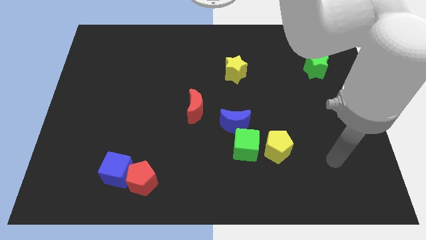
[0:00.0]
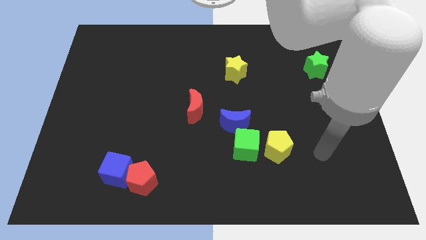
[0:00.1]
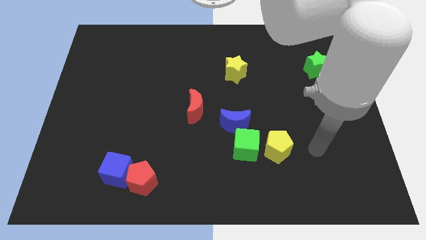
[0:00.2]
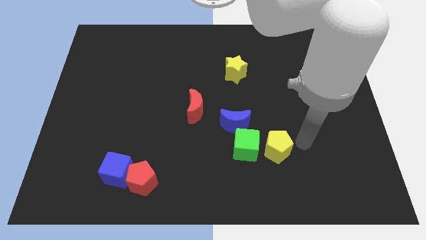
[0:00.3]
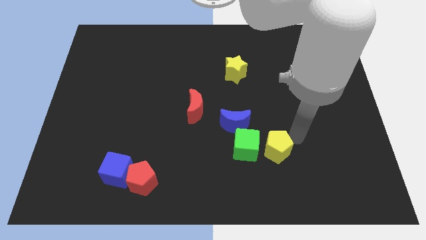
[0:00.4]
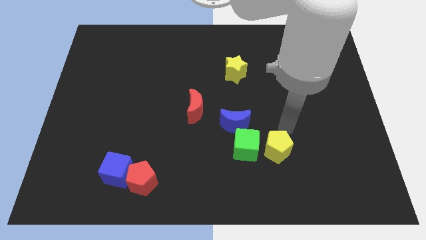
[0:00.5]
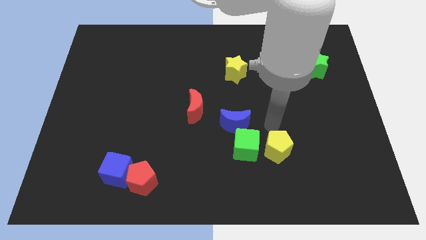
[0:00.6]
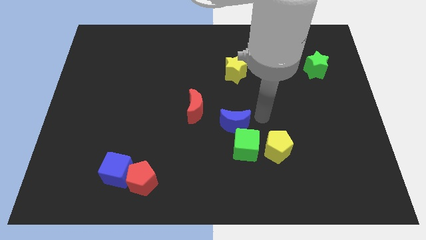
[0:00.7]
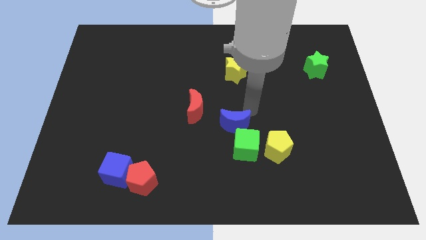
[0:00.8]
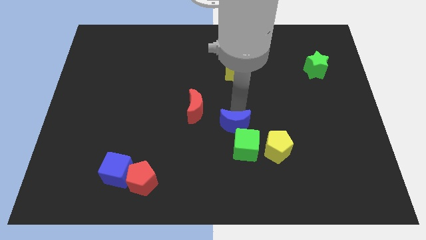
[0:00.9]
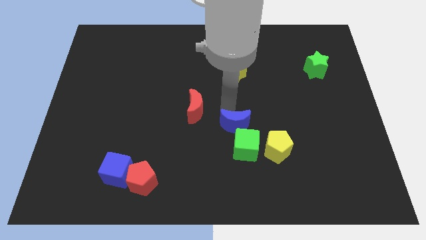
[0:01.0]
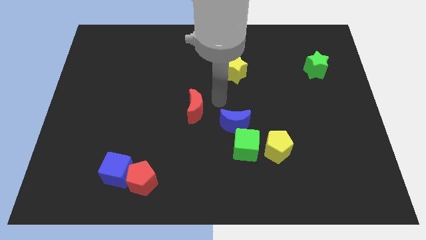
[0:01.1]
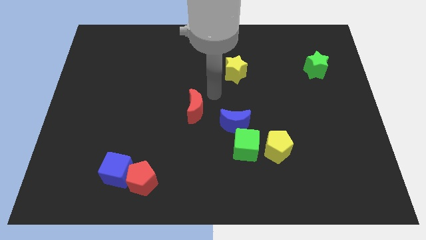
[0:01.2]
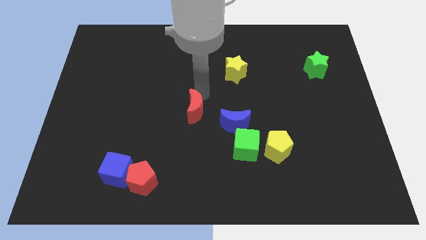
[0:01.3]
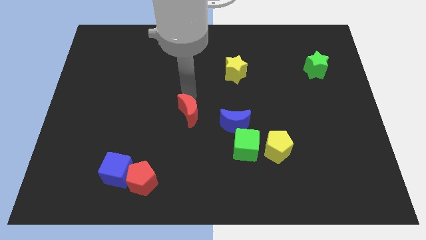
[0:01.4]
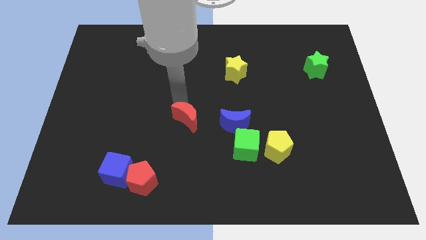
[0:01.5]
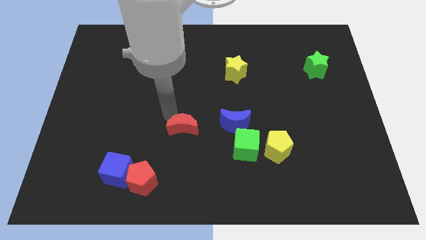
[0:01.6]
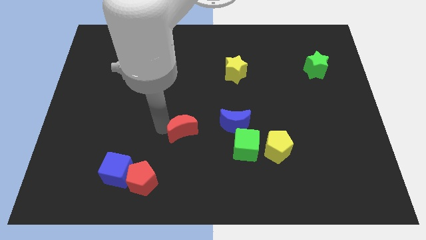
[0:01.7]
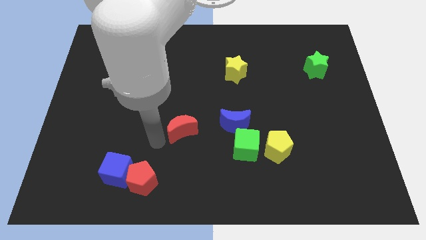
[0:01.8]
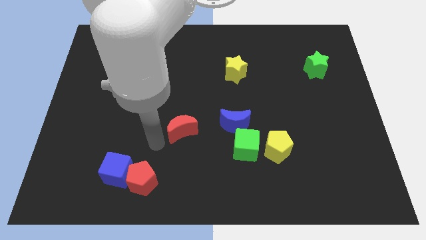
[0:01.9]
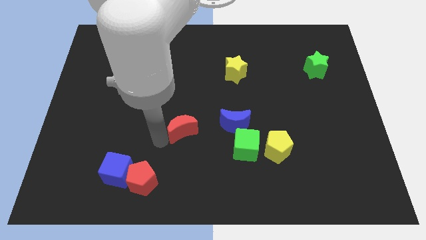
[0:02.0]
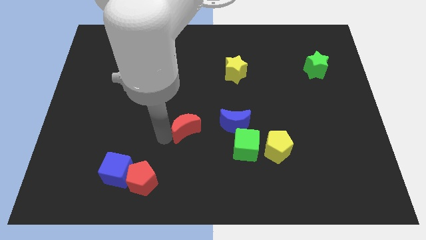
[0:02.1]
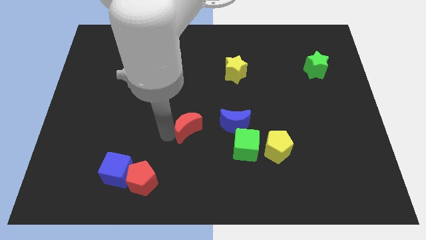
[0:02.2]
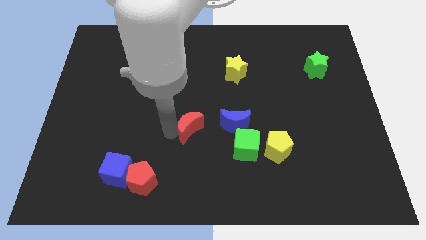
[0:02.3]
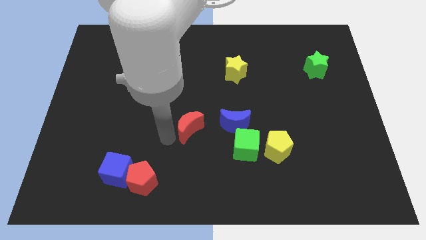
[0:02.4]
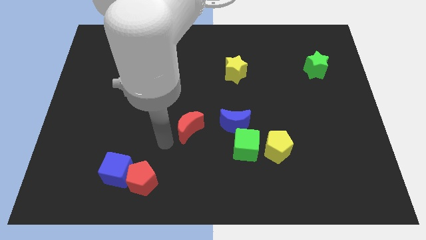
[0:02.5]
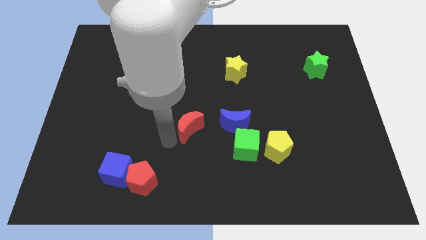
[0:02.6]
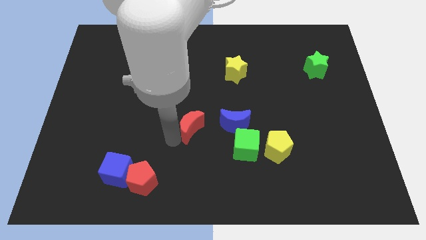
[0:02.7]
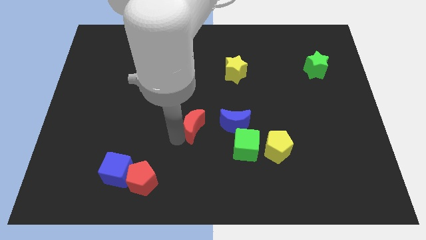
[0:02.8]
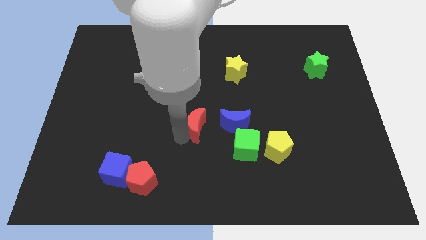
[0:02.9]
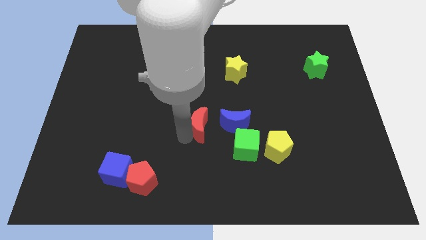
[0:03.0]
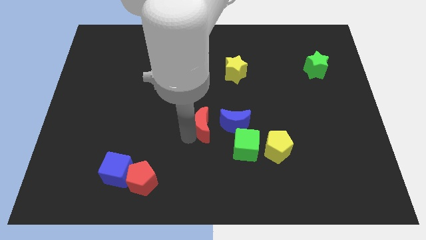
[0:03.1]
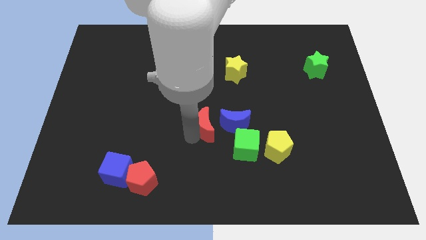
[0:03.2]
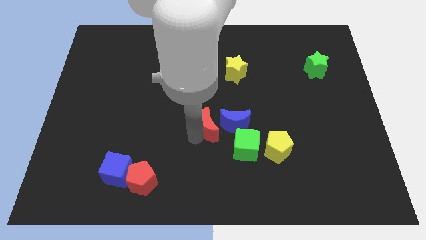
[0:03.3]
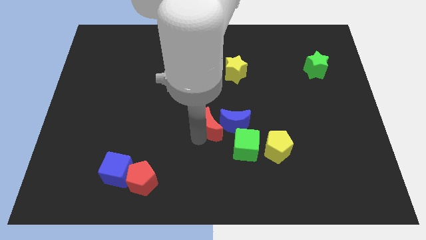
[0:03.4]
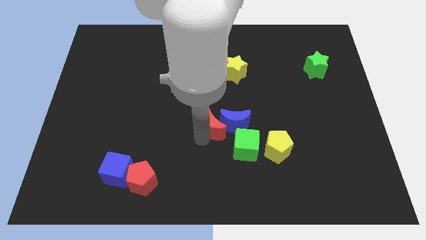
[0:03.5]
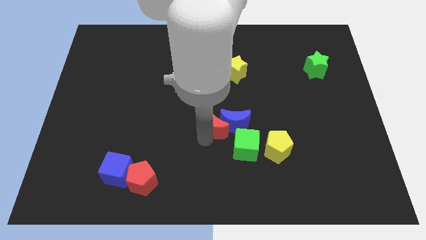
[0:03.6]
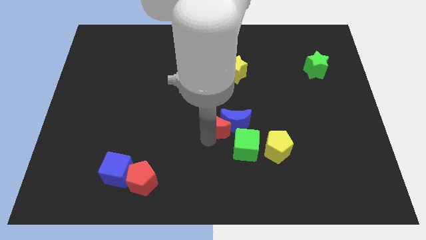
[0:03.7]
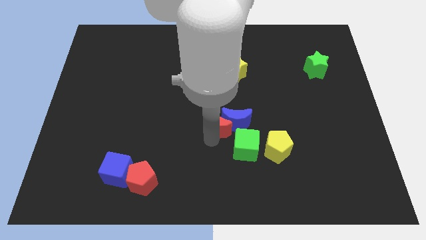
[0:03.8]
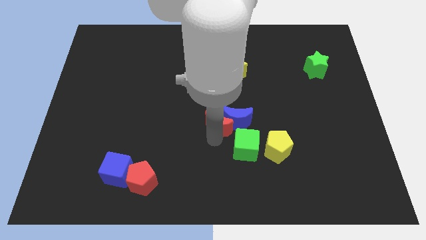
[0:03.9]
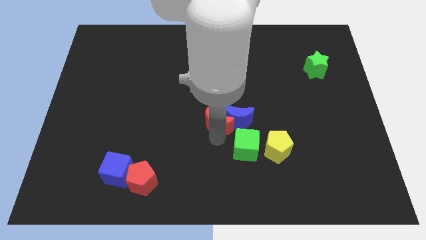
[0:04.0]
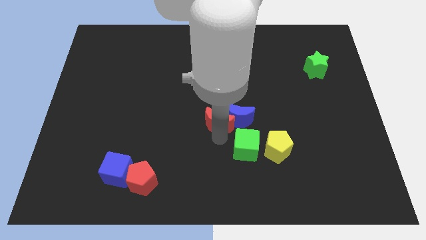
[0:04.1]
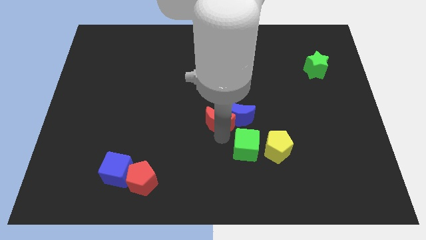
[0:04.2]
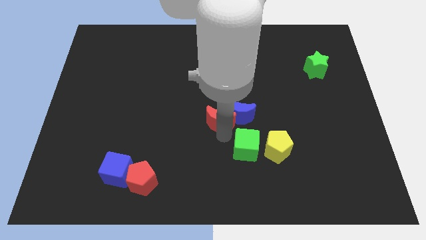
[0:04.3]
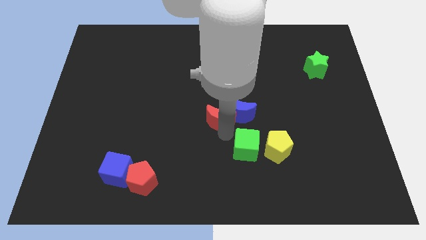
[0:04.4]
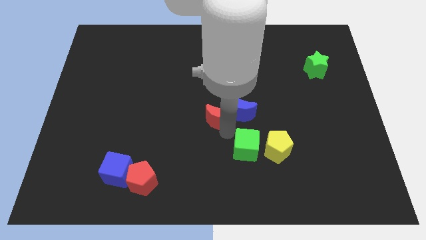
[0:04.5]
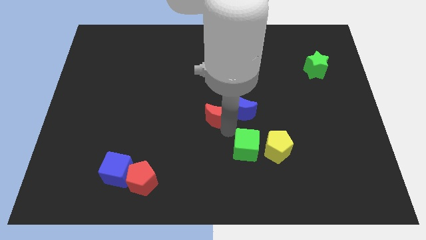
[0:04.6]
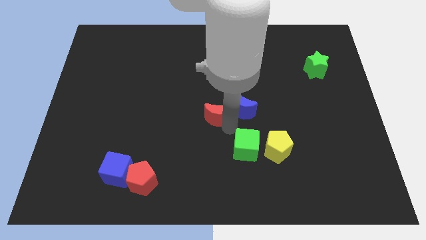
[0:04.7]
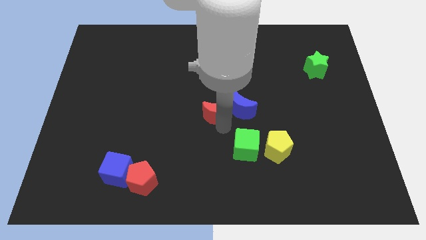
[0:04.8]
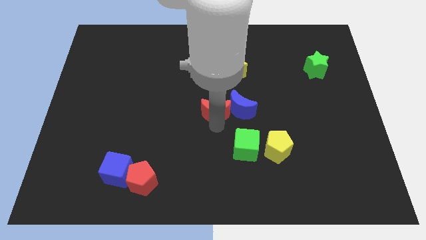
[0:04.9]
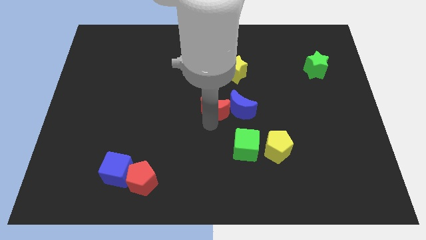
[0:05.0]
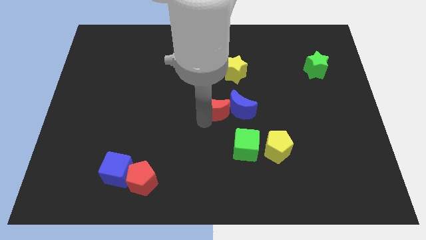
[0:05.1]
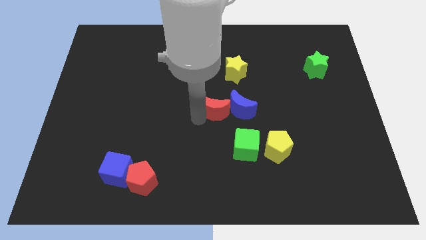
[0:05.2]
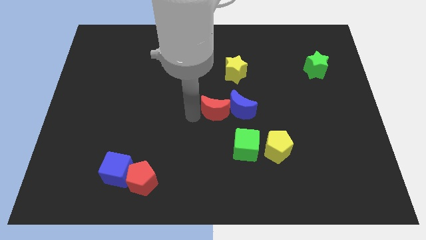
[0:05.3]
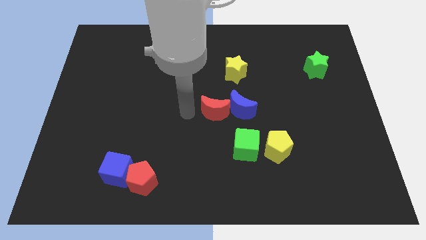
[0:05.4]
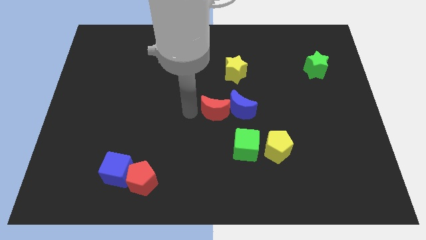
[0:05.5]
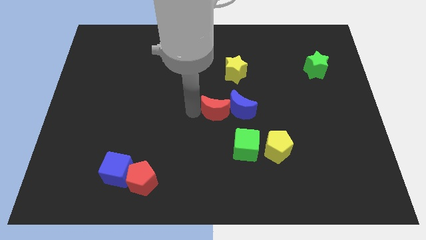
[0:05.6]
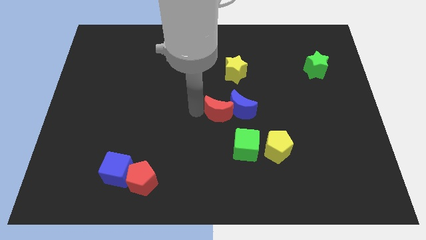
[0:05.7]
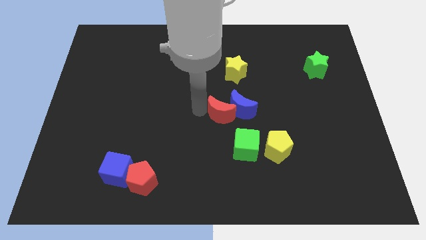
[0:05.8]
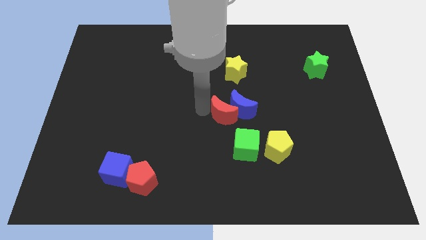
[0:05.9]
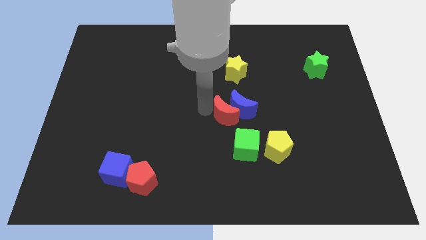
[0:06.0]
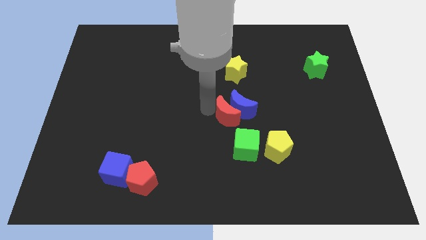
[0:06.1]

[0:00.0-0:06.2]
push the red moon a bit to the right

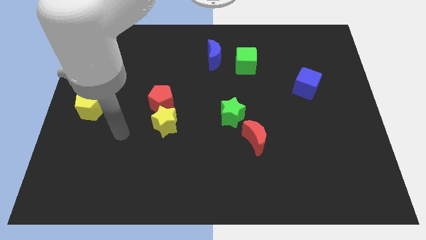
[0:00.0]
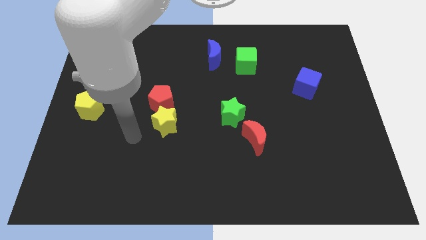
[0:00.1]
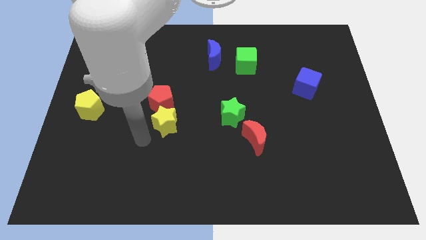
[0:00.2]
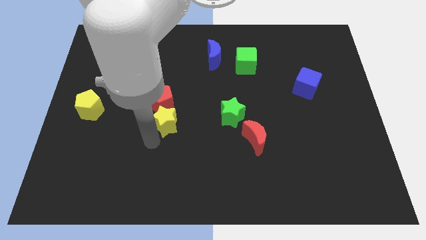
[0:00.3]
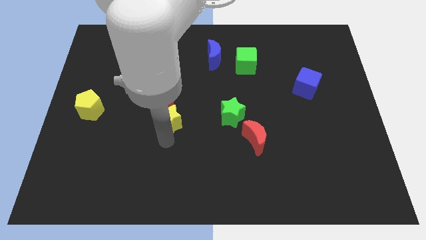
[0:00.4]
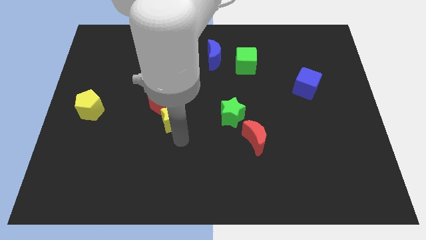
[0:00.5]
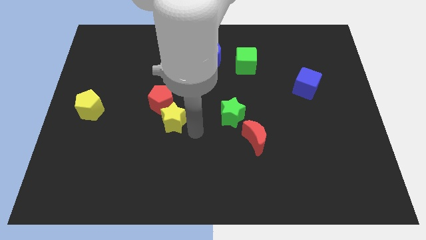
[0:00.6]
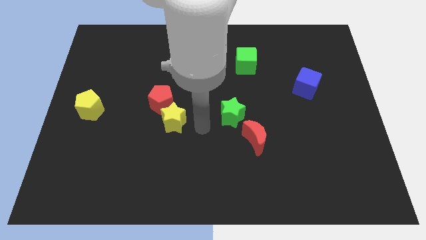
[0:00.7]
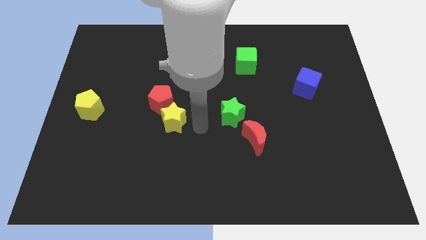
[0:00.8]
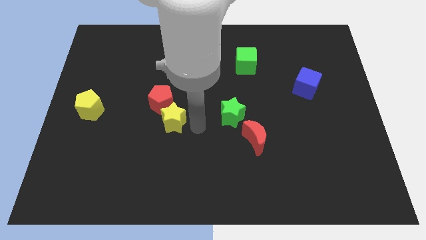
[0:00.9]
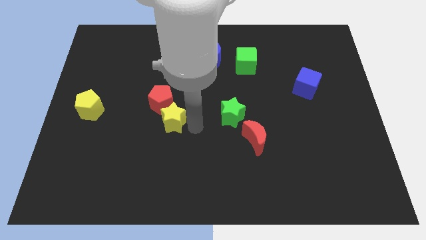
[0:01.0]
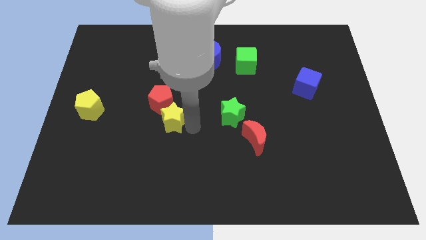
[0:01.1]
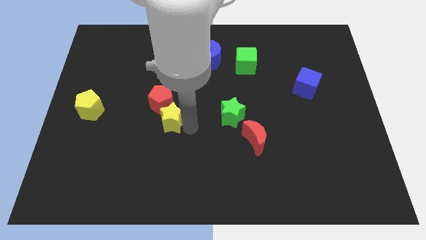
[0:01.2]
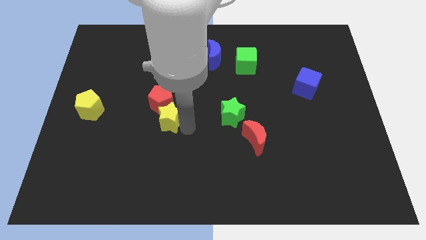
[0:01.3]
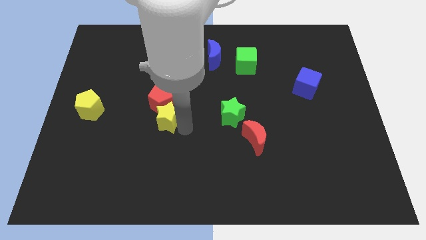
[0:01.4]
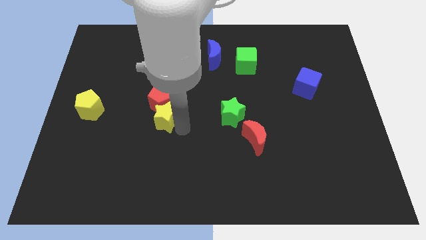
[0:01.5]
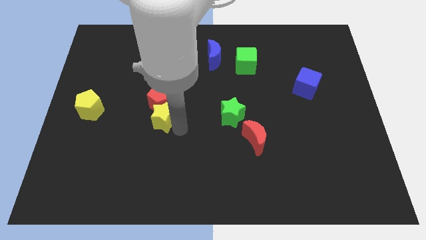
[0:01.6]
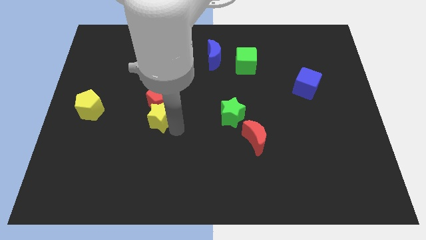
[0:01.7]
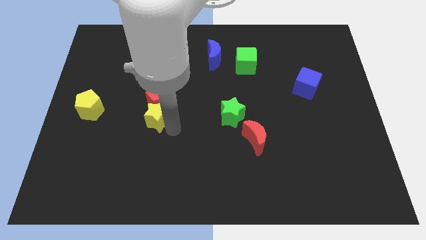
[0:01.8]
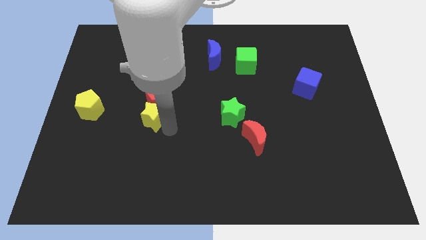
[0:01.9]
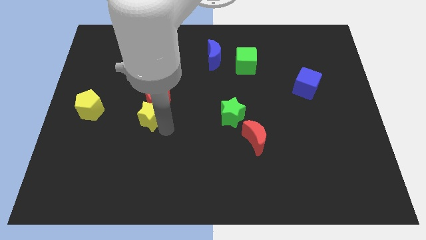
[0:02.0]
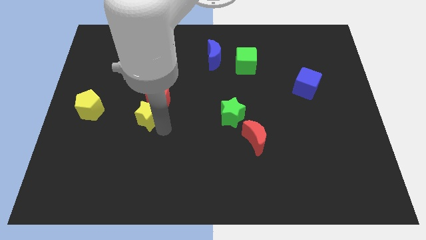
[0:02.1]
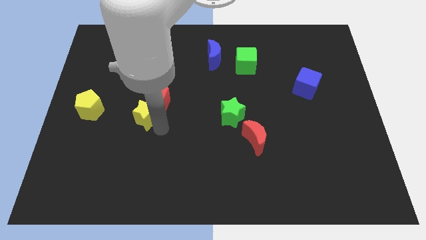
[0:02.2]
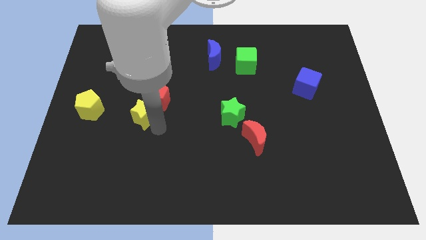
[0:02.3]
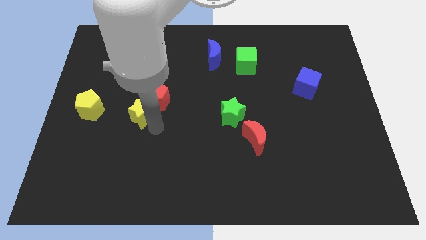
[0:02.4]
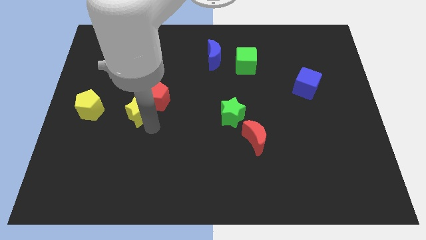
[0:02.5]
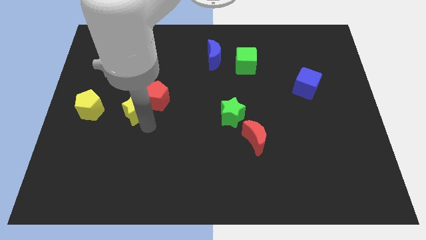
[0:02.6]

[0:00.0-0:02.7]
slightly slide the yellow star up and left
